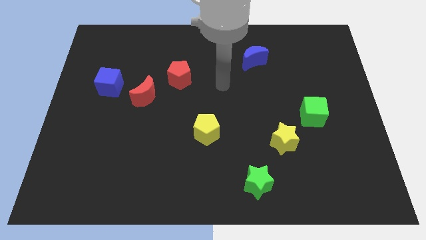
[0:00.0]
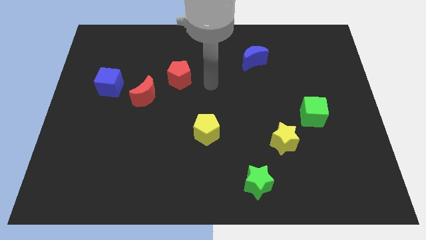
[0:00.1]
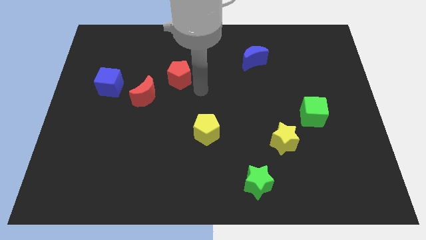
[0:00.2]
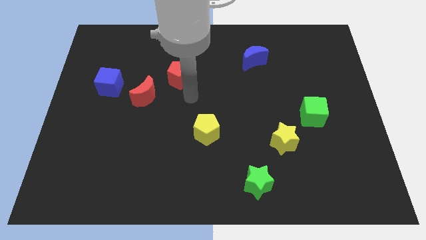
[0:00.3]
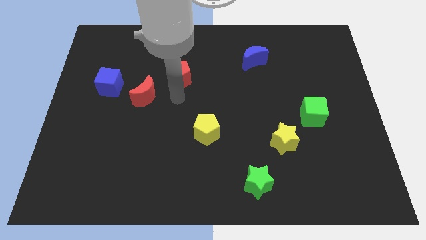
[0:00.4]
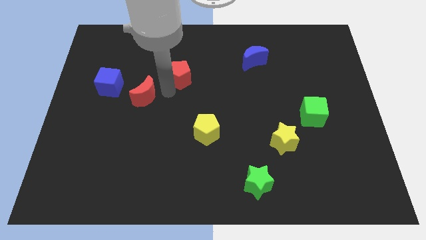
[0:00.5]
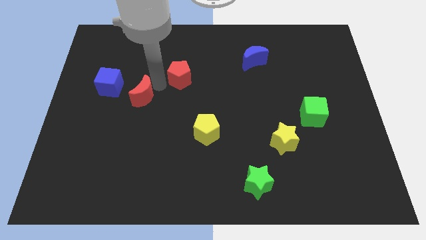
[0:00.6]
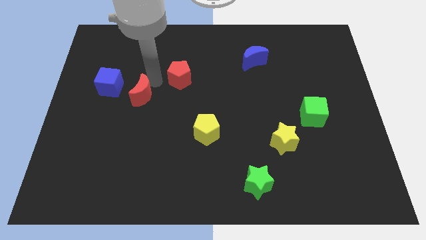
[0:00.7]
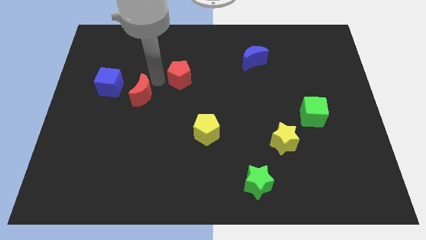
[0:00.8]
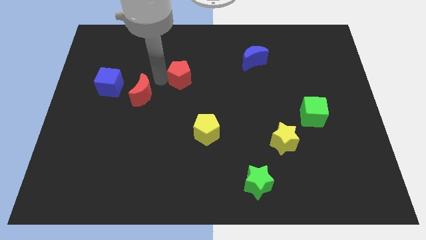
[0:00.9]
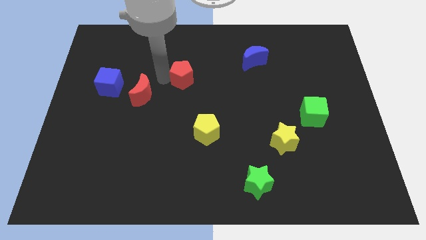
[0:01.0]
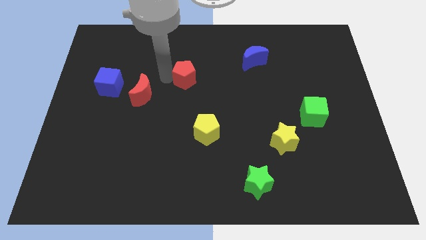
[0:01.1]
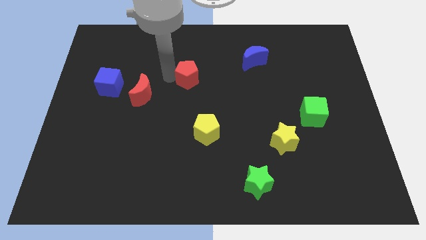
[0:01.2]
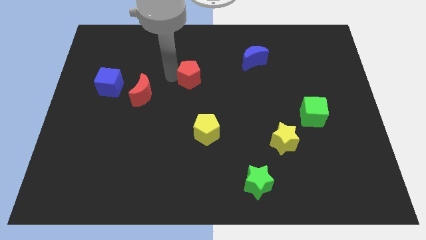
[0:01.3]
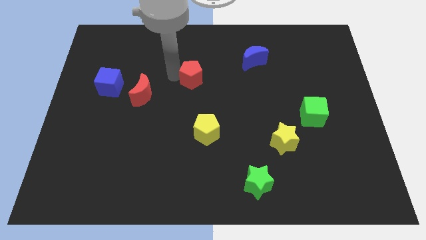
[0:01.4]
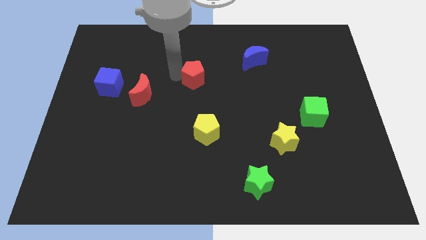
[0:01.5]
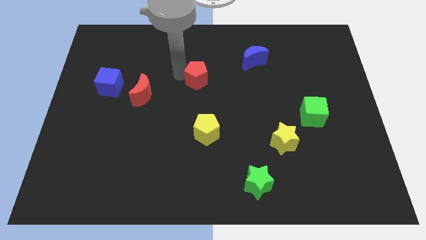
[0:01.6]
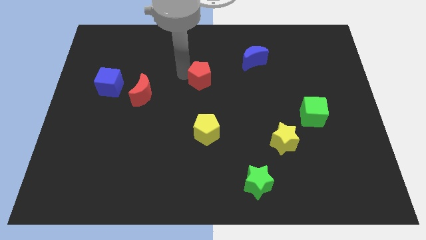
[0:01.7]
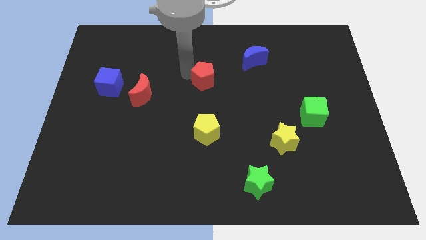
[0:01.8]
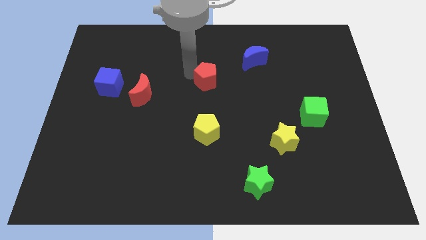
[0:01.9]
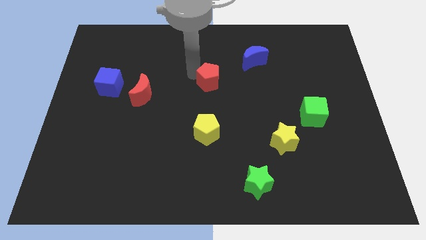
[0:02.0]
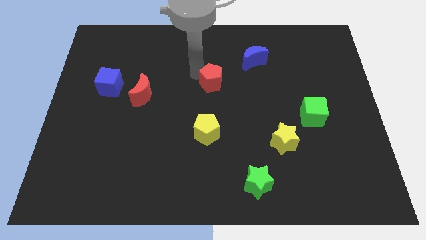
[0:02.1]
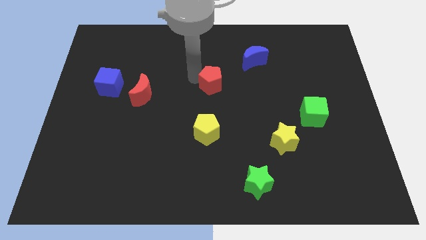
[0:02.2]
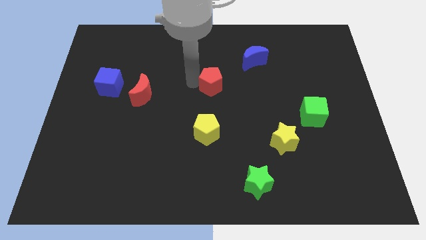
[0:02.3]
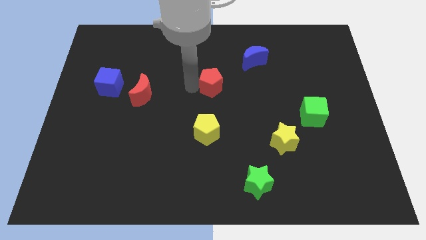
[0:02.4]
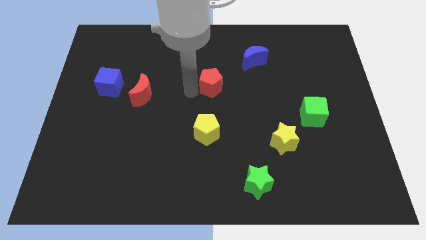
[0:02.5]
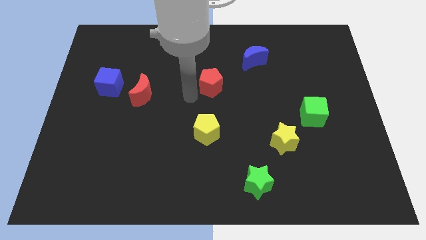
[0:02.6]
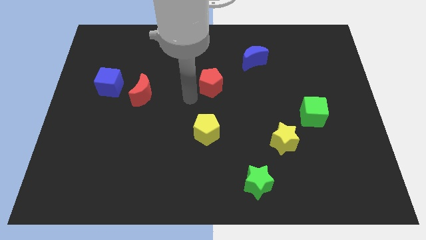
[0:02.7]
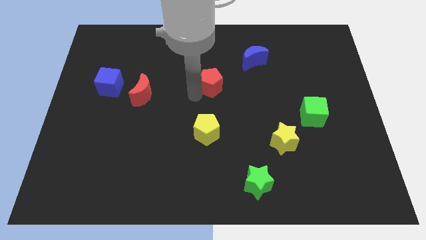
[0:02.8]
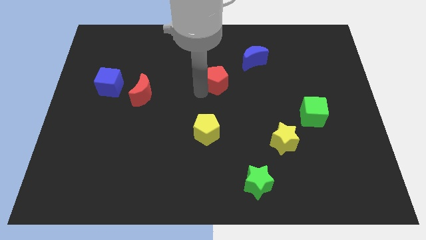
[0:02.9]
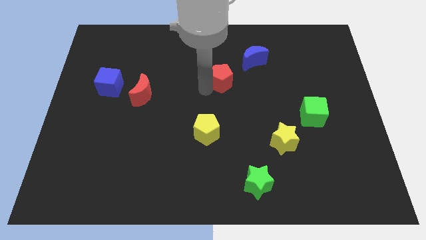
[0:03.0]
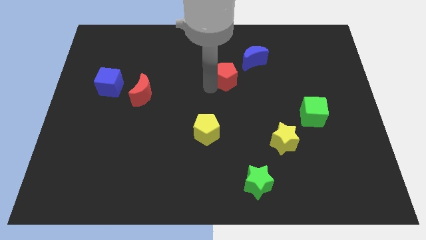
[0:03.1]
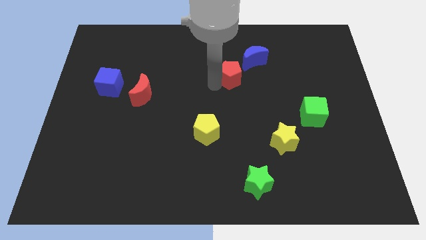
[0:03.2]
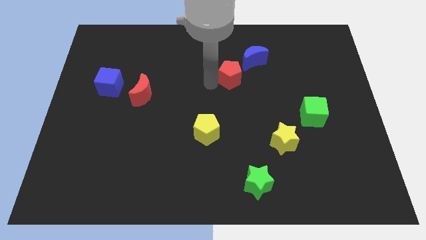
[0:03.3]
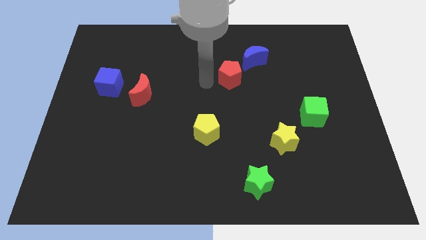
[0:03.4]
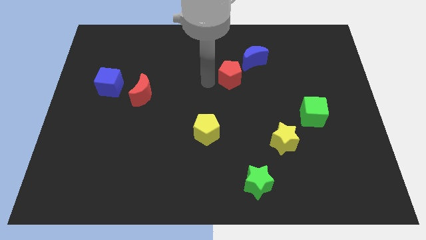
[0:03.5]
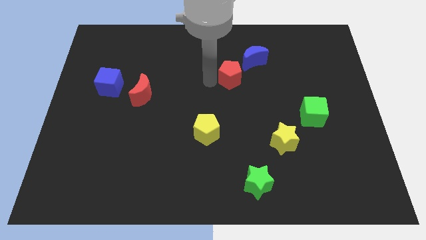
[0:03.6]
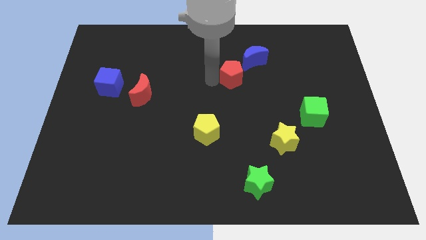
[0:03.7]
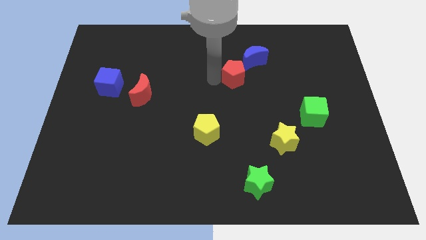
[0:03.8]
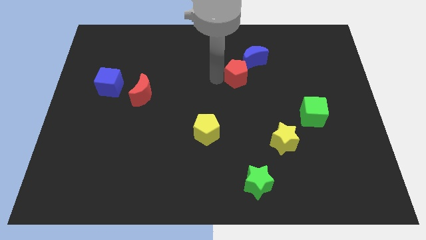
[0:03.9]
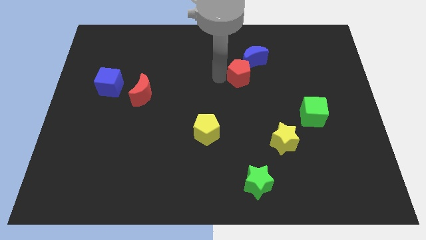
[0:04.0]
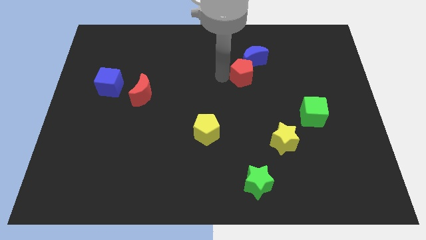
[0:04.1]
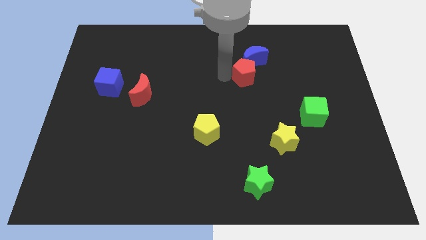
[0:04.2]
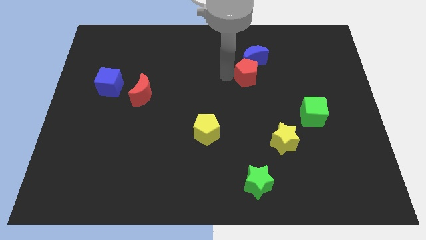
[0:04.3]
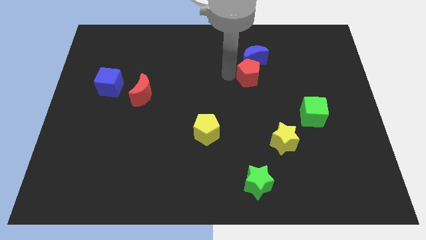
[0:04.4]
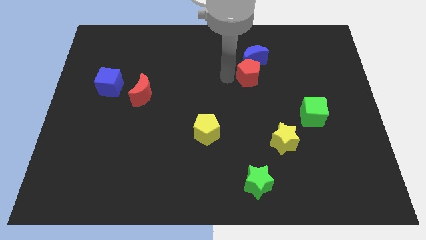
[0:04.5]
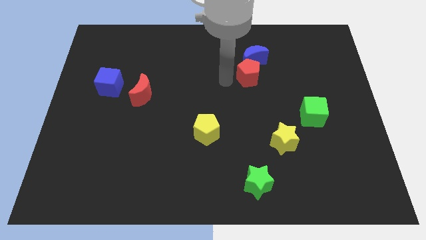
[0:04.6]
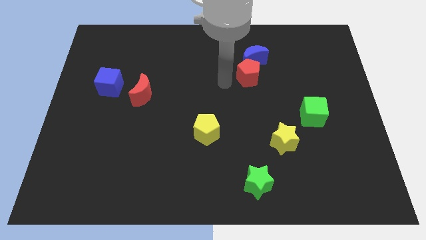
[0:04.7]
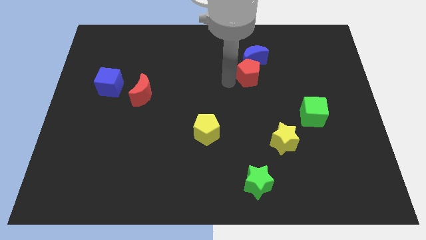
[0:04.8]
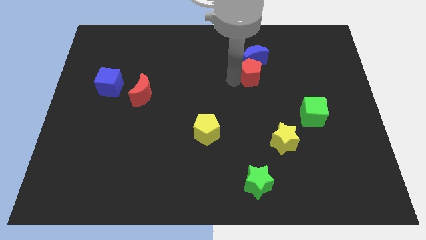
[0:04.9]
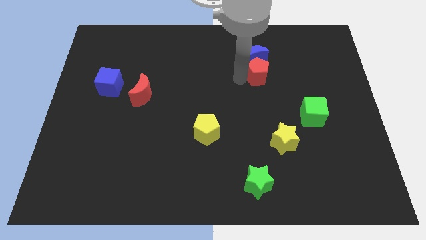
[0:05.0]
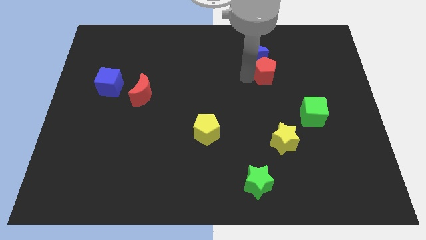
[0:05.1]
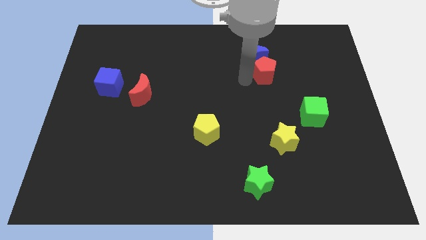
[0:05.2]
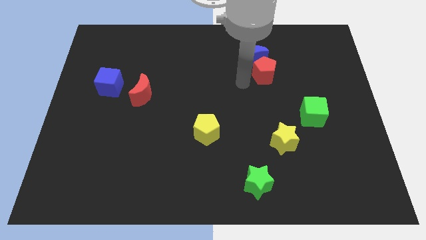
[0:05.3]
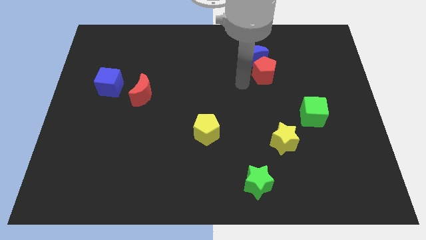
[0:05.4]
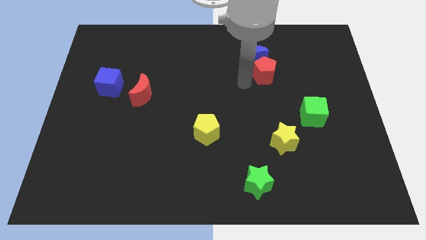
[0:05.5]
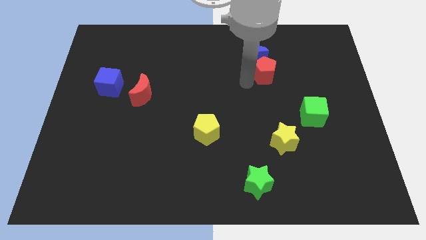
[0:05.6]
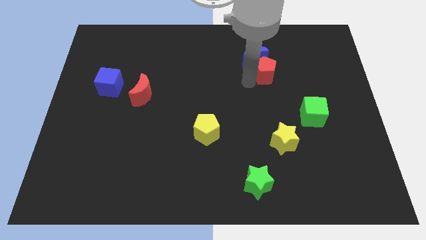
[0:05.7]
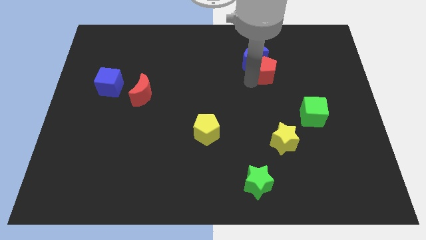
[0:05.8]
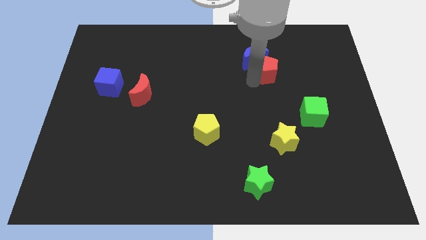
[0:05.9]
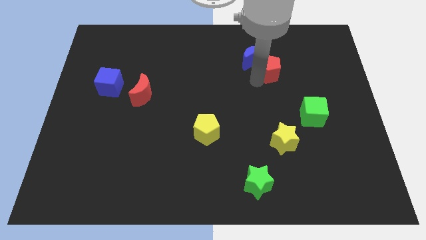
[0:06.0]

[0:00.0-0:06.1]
slide the red pentagon right of the blue moon

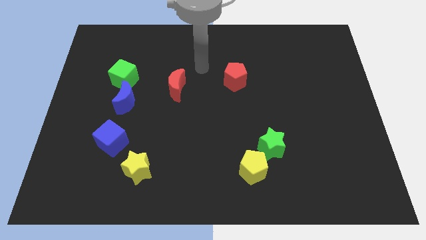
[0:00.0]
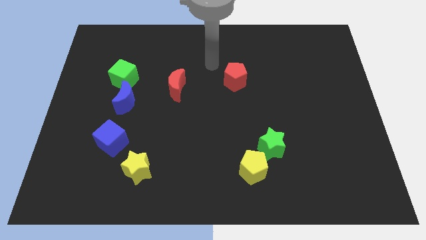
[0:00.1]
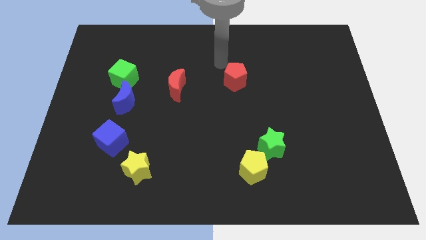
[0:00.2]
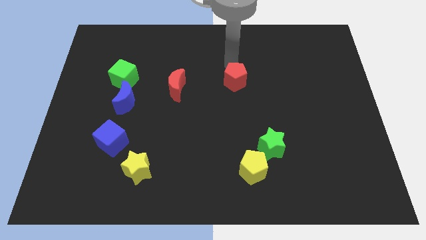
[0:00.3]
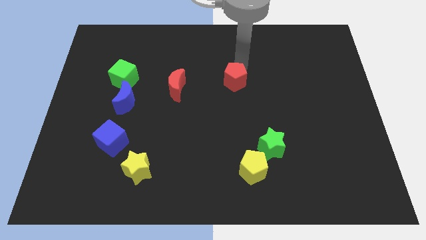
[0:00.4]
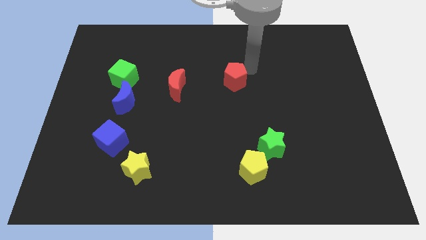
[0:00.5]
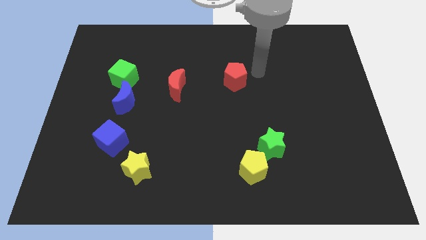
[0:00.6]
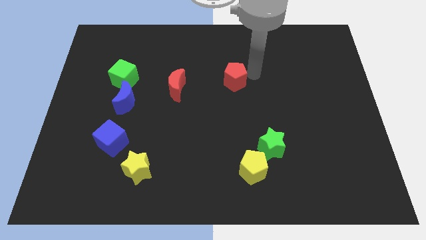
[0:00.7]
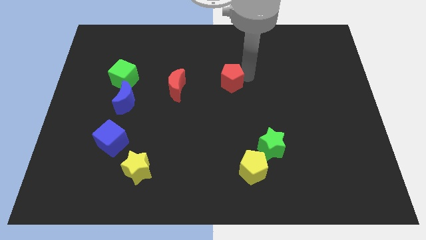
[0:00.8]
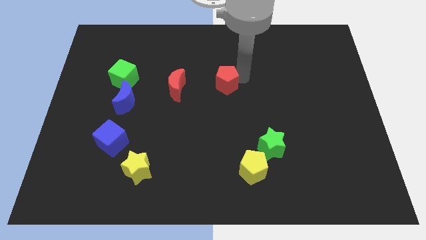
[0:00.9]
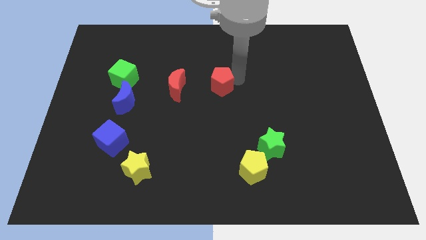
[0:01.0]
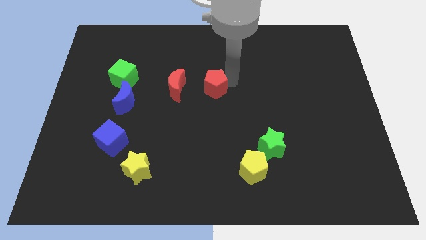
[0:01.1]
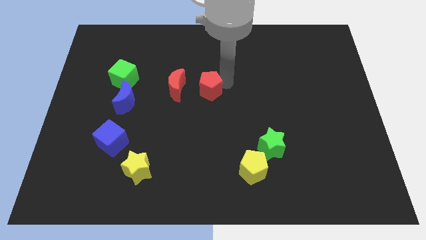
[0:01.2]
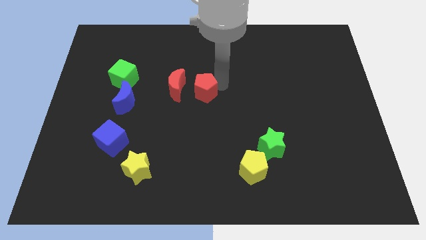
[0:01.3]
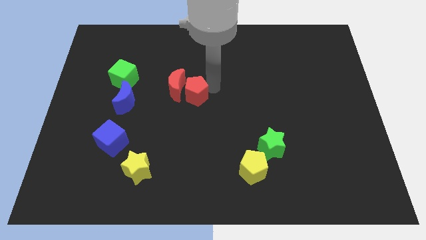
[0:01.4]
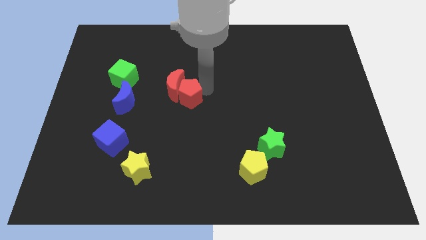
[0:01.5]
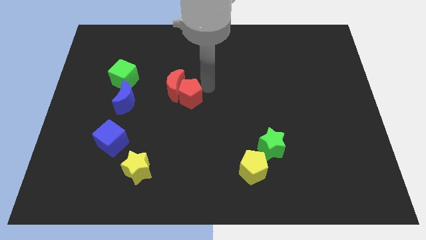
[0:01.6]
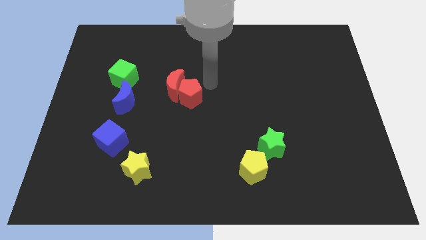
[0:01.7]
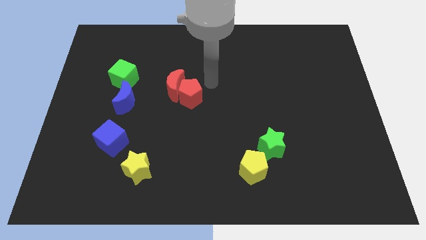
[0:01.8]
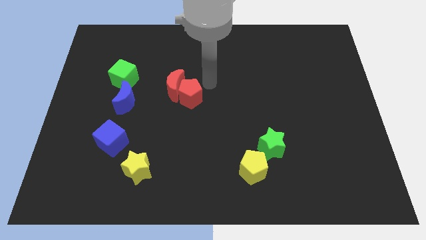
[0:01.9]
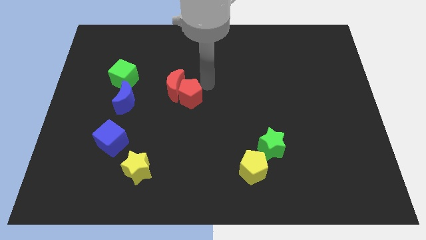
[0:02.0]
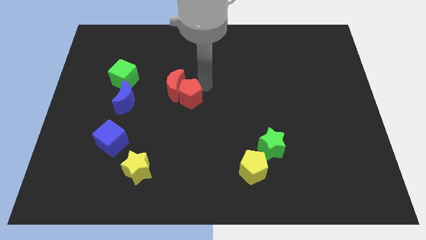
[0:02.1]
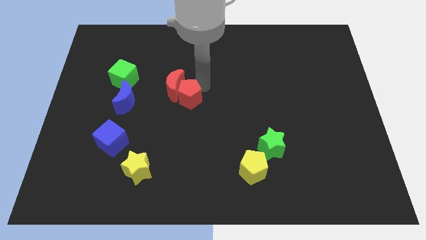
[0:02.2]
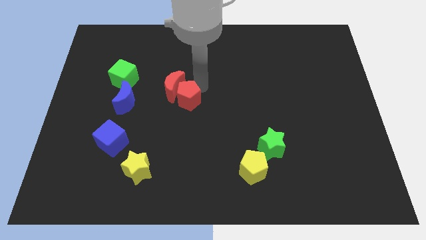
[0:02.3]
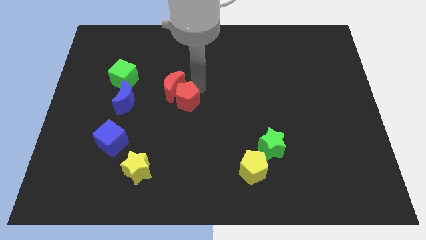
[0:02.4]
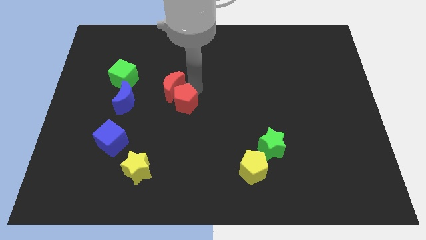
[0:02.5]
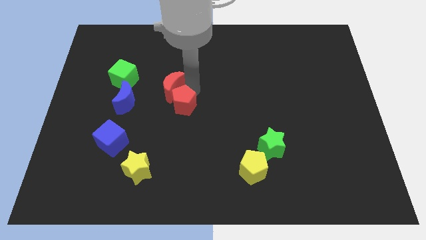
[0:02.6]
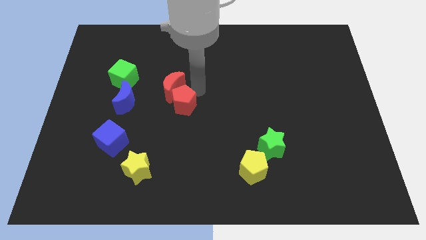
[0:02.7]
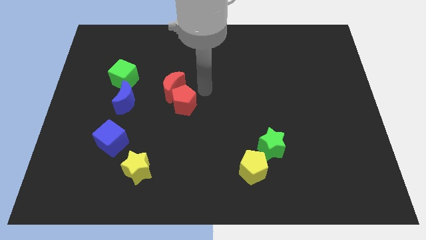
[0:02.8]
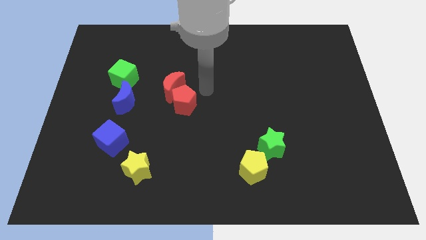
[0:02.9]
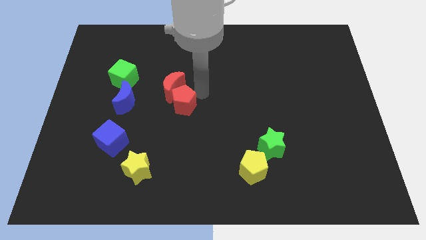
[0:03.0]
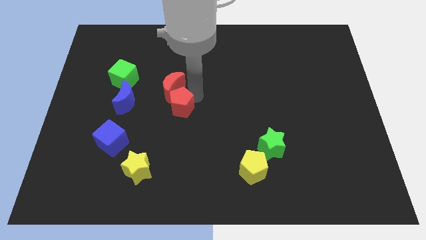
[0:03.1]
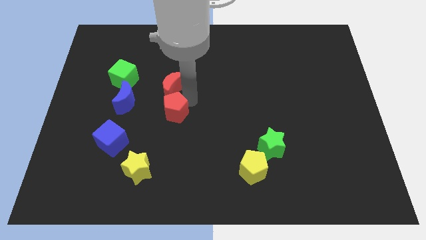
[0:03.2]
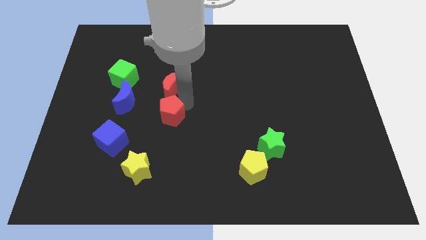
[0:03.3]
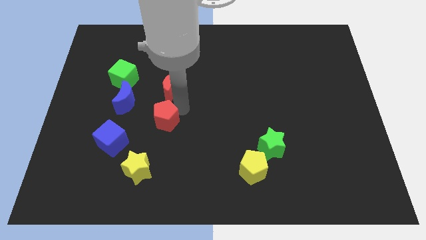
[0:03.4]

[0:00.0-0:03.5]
slide the red pentagon to the bottom right side of the blue moon
